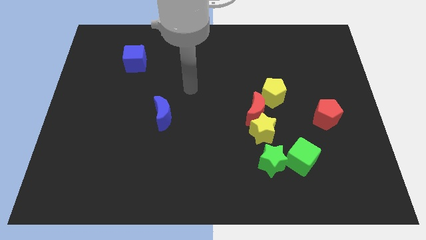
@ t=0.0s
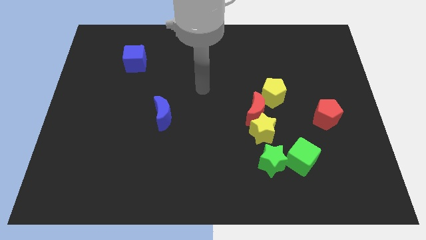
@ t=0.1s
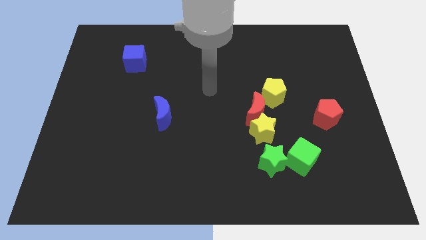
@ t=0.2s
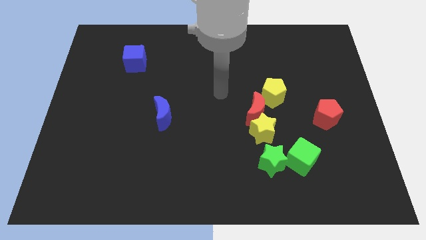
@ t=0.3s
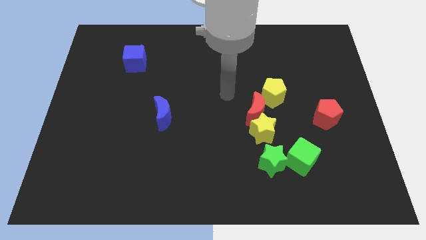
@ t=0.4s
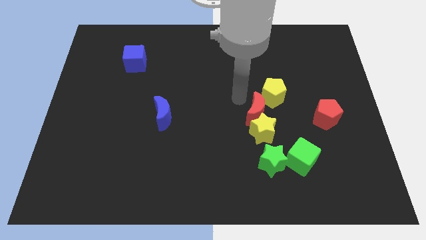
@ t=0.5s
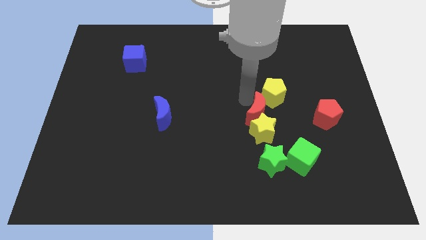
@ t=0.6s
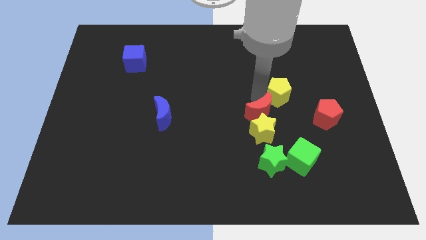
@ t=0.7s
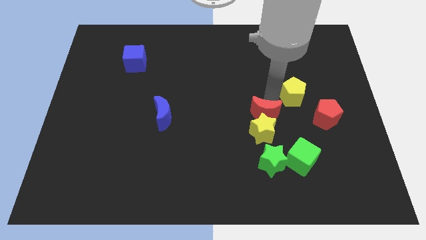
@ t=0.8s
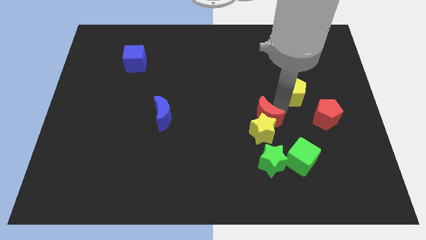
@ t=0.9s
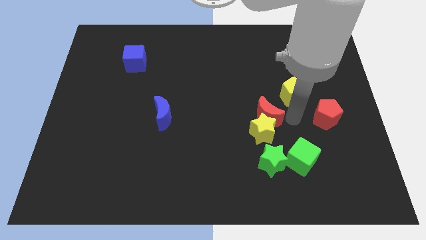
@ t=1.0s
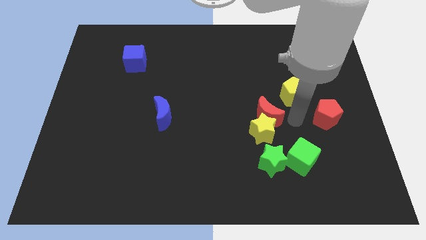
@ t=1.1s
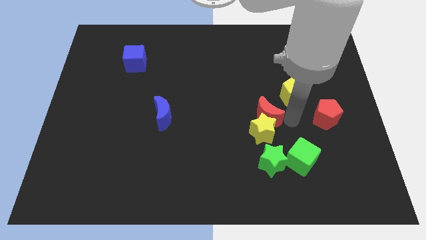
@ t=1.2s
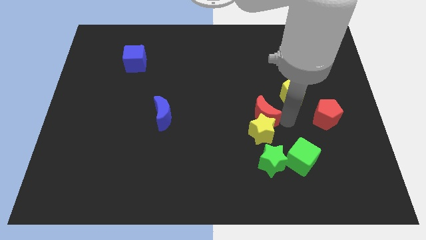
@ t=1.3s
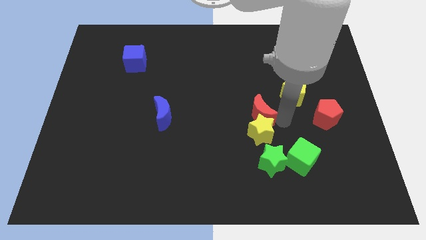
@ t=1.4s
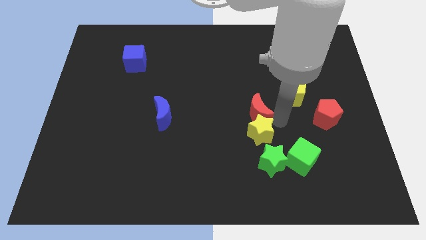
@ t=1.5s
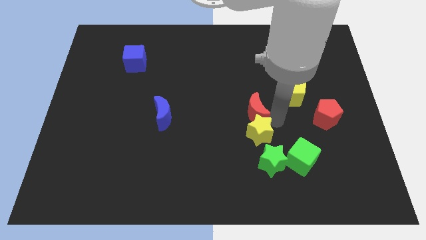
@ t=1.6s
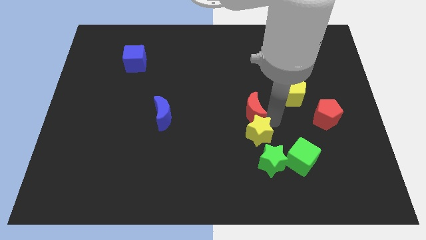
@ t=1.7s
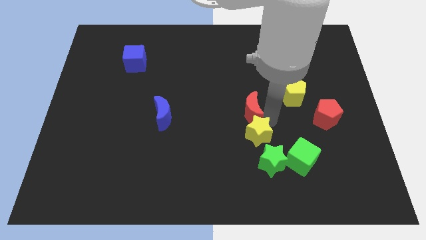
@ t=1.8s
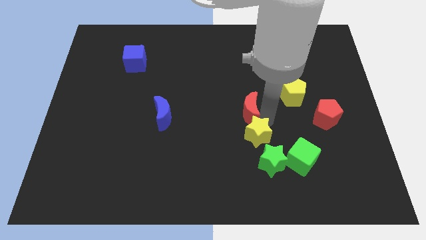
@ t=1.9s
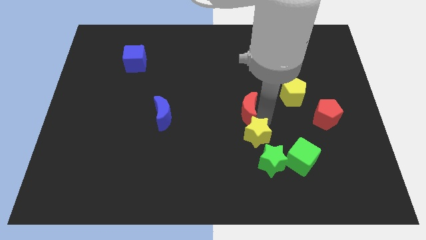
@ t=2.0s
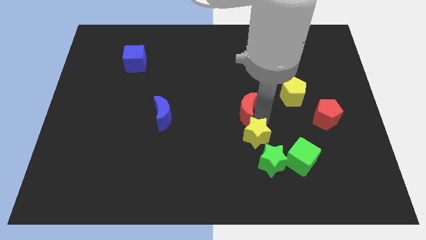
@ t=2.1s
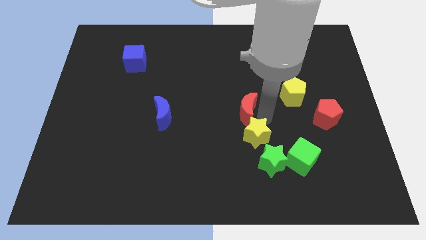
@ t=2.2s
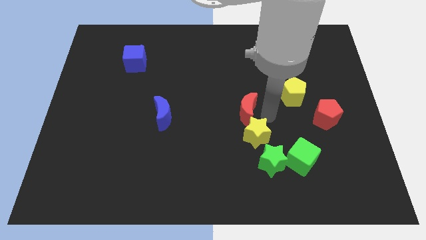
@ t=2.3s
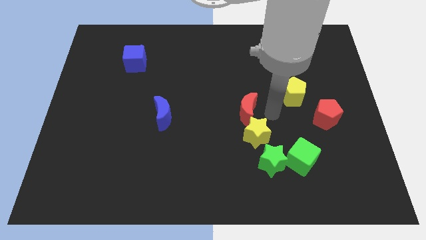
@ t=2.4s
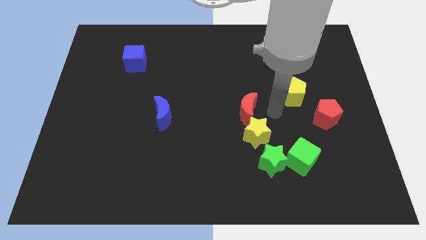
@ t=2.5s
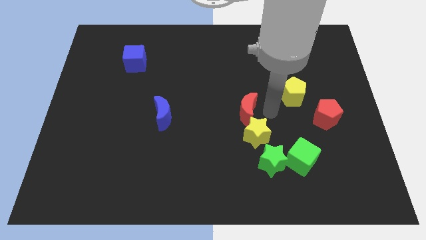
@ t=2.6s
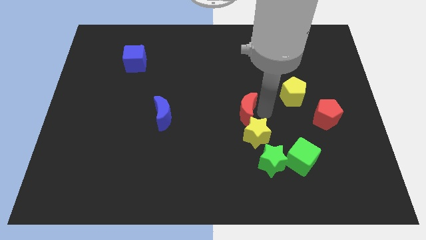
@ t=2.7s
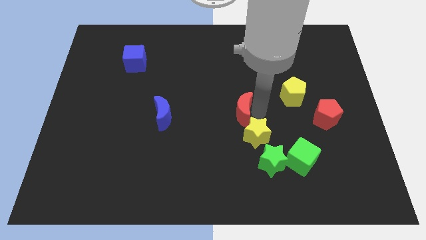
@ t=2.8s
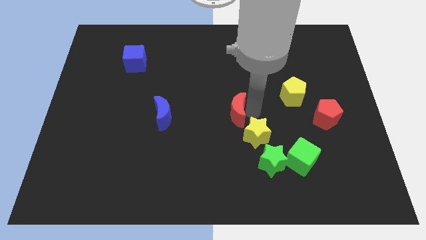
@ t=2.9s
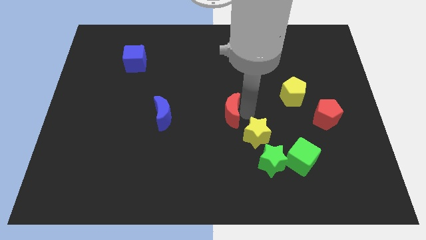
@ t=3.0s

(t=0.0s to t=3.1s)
move the red moon away from the yellow star and yellow pentagon

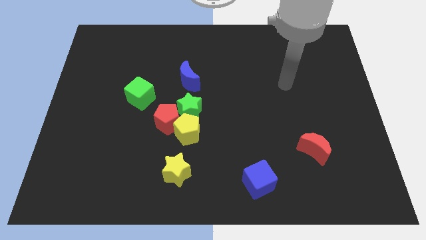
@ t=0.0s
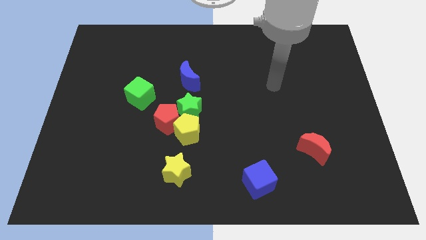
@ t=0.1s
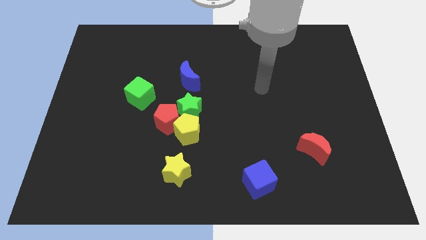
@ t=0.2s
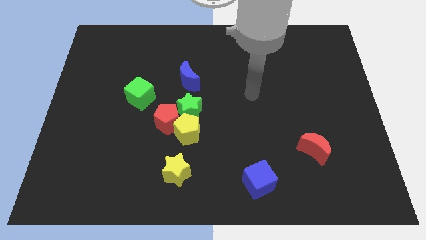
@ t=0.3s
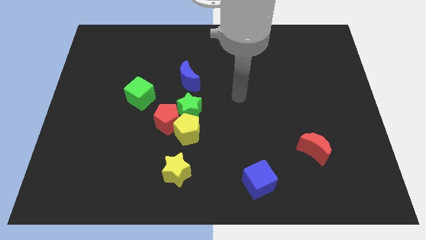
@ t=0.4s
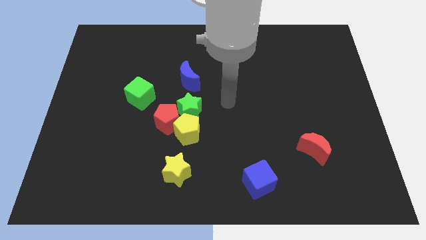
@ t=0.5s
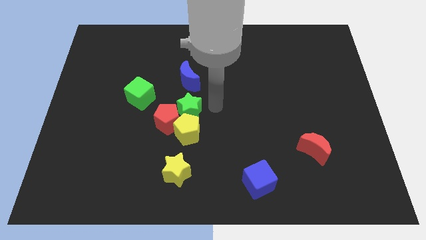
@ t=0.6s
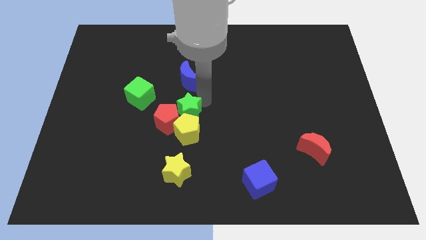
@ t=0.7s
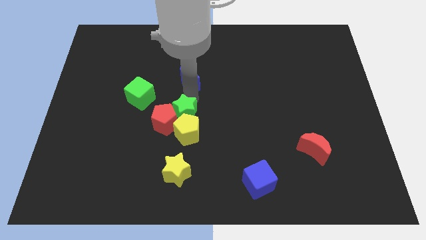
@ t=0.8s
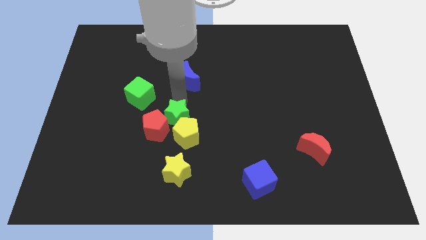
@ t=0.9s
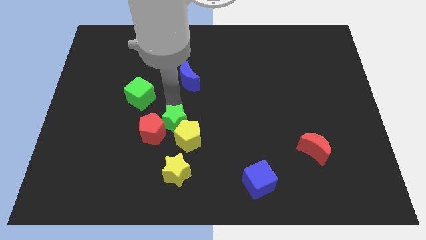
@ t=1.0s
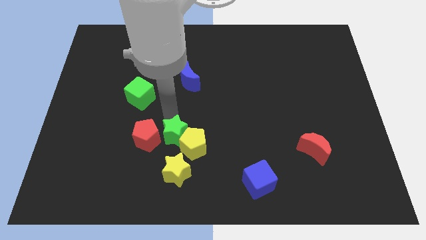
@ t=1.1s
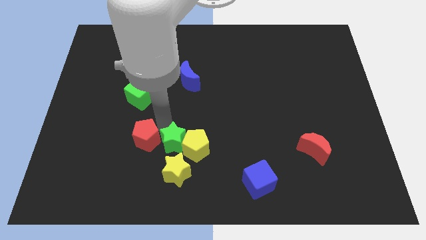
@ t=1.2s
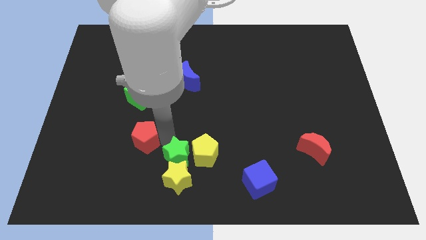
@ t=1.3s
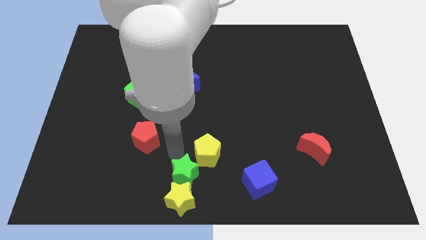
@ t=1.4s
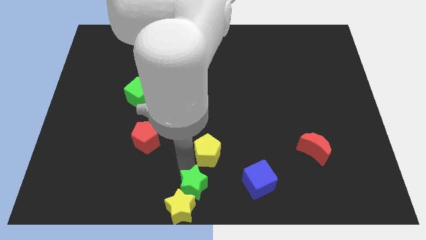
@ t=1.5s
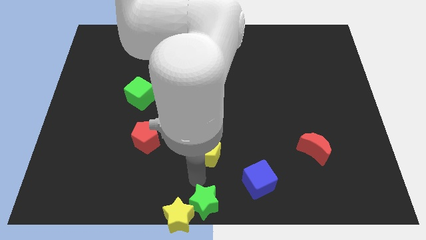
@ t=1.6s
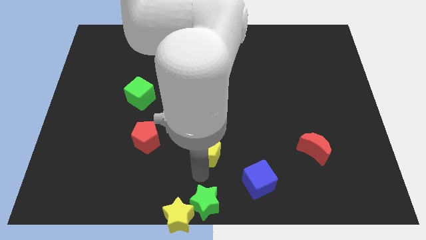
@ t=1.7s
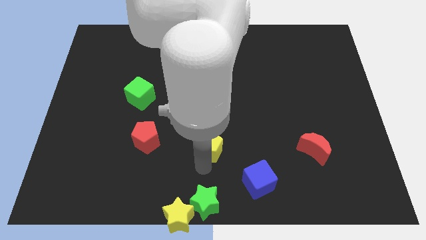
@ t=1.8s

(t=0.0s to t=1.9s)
move the yellow pentagon away from the group

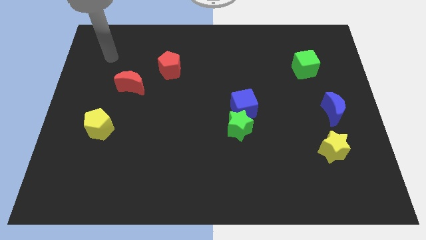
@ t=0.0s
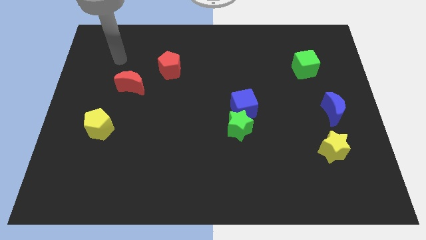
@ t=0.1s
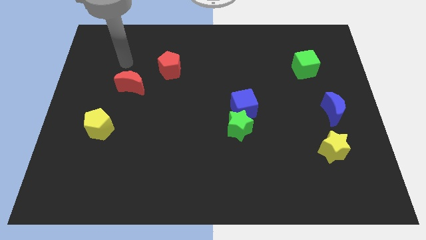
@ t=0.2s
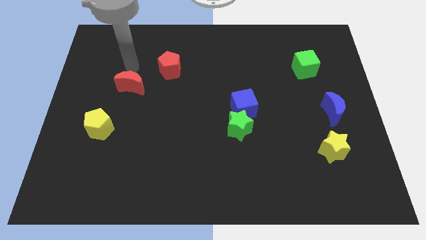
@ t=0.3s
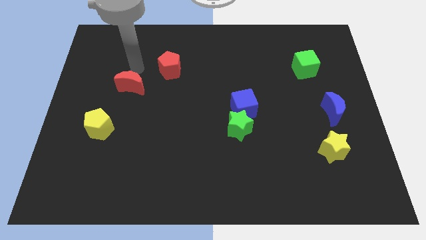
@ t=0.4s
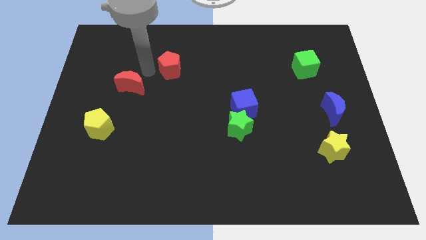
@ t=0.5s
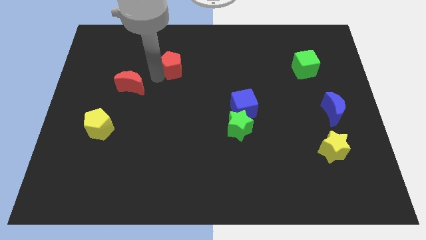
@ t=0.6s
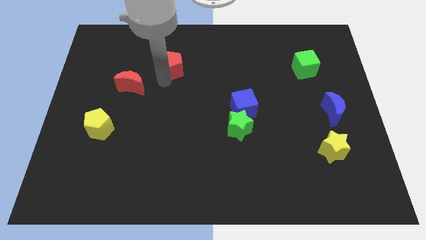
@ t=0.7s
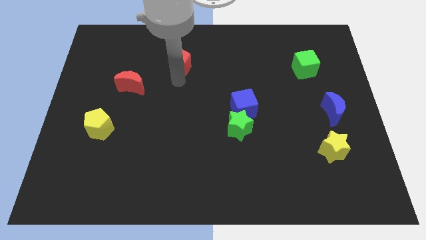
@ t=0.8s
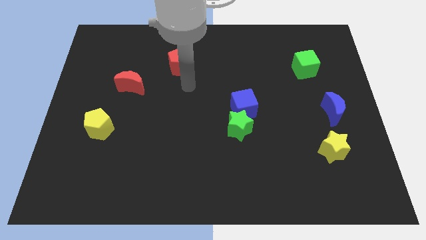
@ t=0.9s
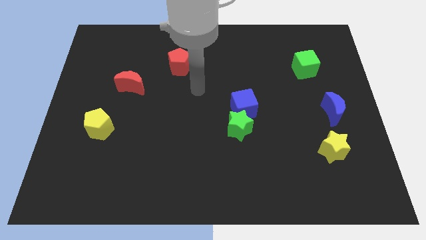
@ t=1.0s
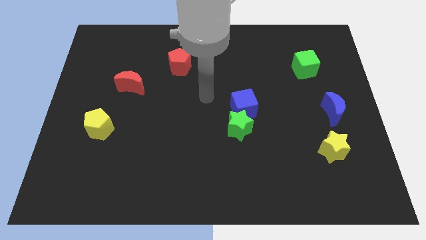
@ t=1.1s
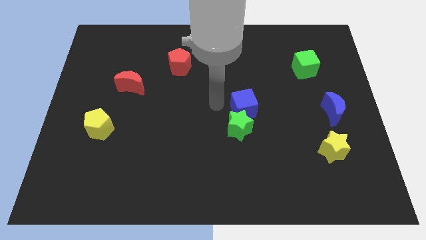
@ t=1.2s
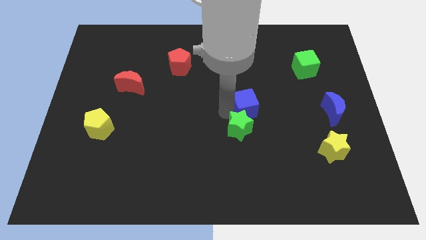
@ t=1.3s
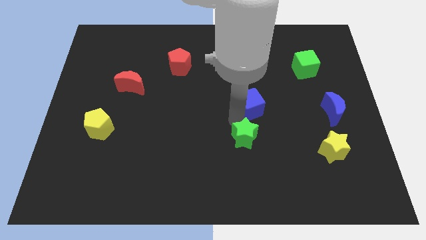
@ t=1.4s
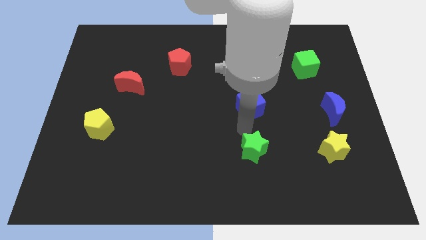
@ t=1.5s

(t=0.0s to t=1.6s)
move the blue cube away from the green star

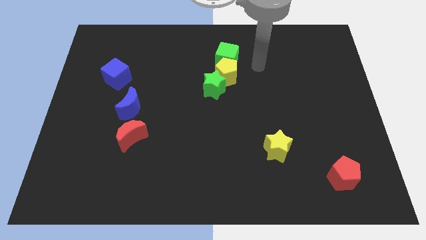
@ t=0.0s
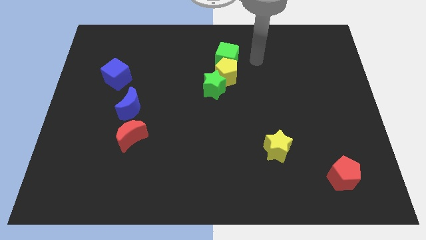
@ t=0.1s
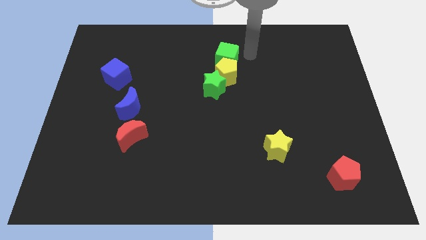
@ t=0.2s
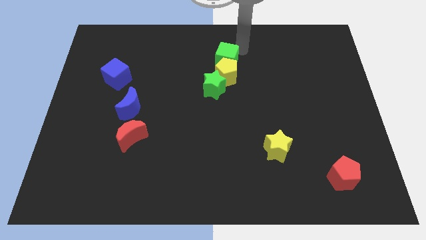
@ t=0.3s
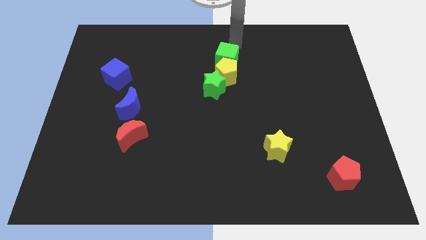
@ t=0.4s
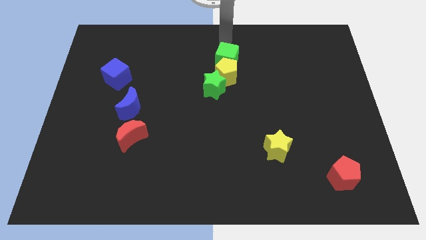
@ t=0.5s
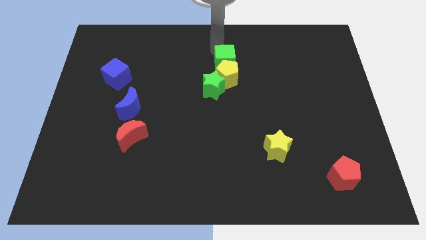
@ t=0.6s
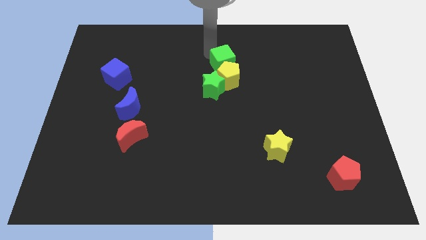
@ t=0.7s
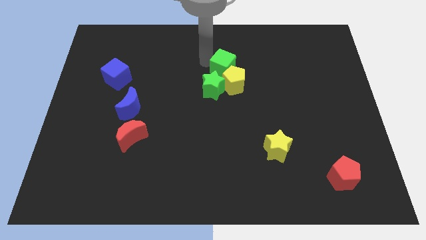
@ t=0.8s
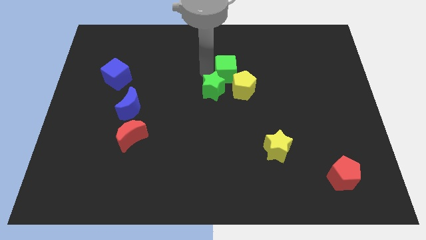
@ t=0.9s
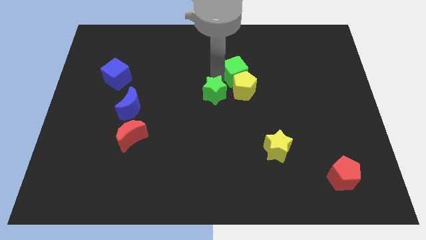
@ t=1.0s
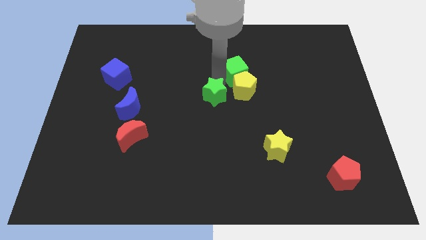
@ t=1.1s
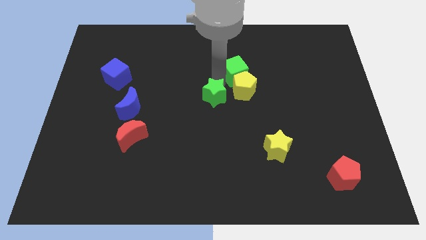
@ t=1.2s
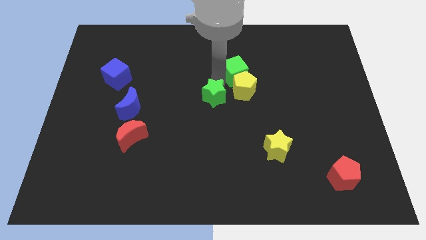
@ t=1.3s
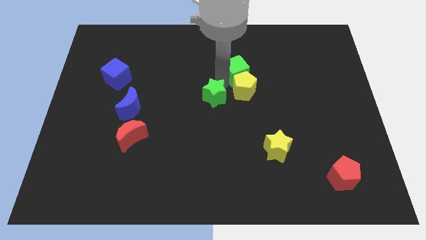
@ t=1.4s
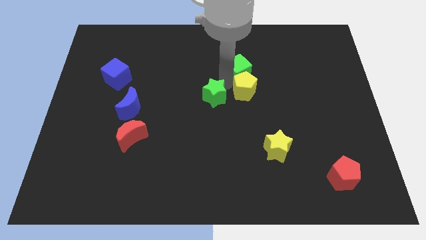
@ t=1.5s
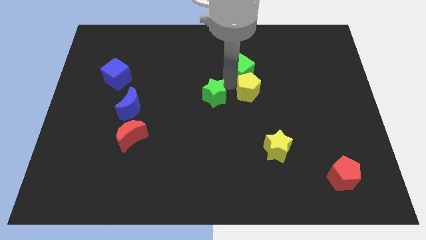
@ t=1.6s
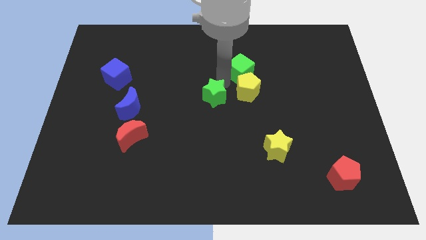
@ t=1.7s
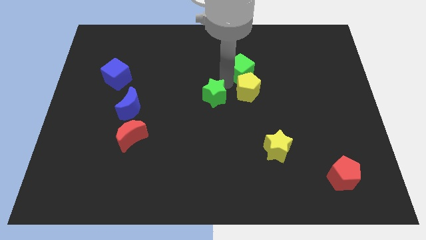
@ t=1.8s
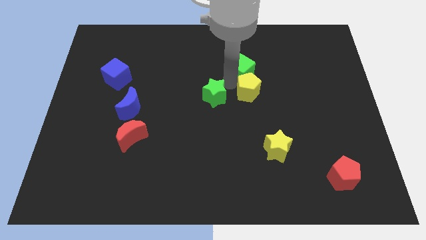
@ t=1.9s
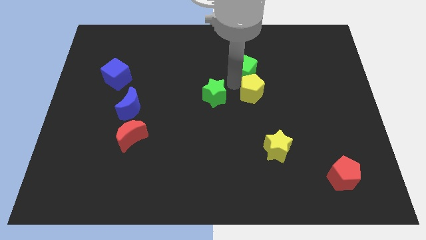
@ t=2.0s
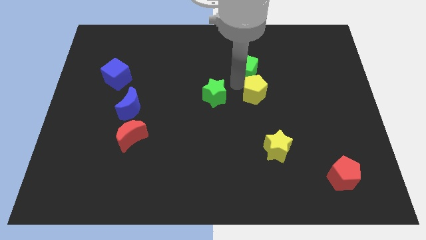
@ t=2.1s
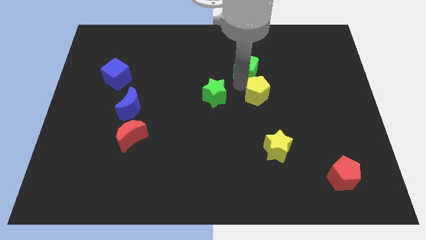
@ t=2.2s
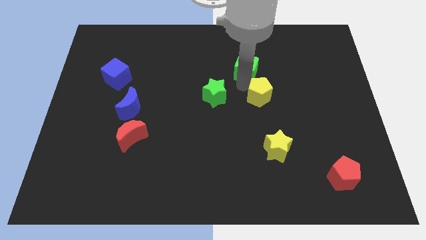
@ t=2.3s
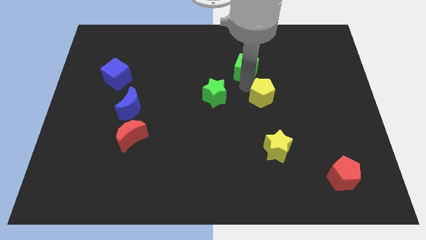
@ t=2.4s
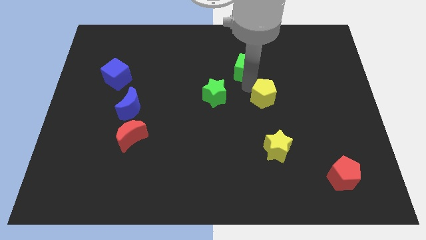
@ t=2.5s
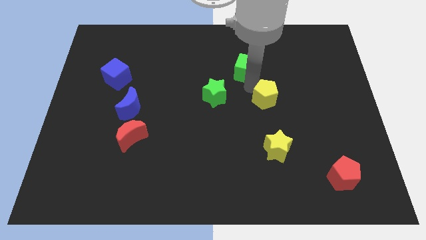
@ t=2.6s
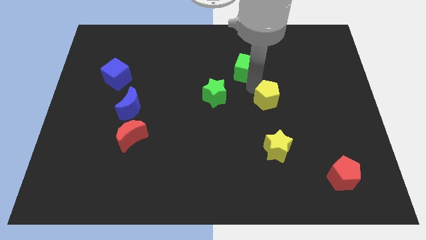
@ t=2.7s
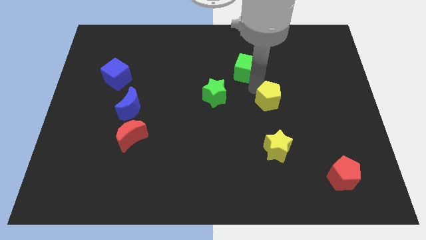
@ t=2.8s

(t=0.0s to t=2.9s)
separate the yellow pentagon from the green star and green cube
